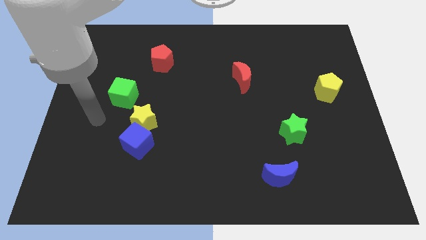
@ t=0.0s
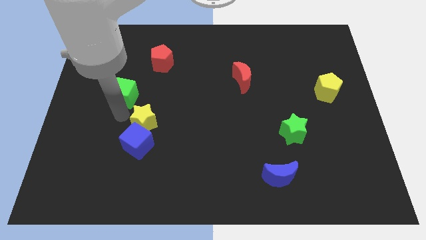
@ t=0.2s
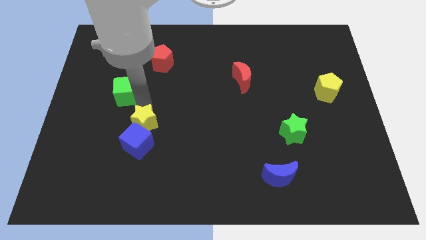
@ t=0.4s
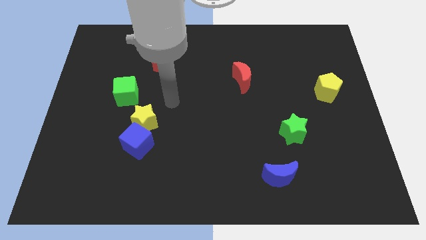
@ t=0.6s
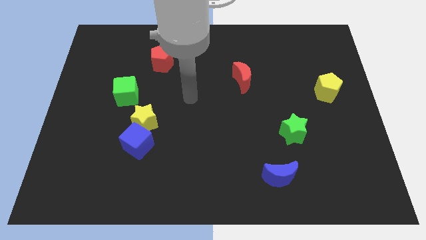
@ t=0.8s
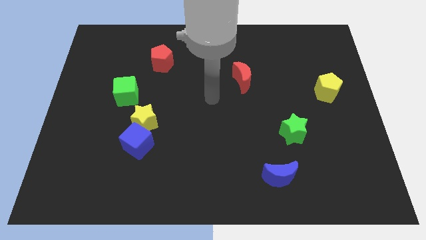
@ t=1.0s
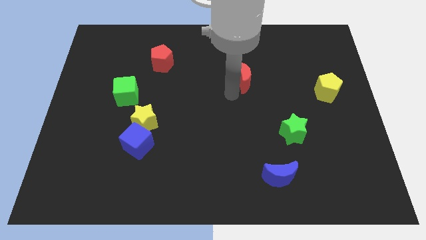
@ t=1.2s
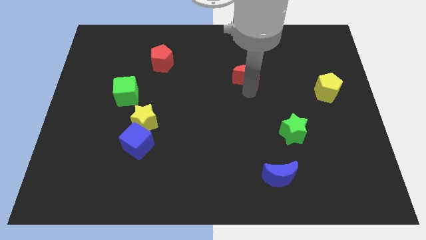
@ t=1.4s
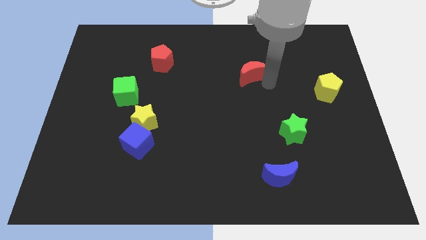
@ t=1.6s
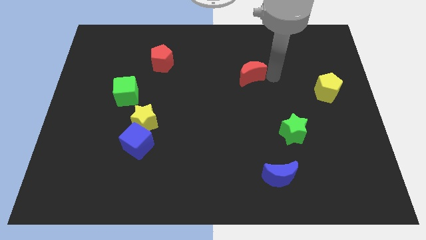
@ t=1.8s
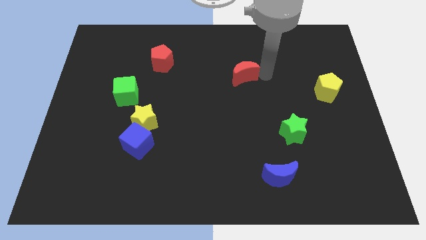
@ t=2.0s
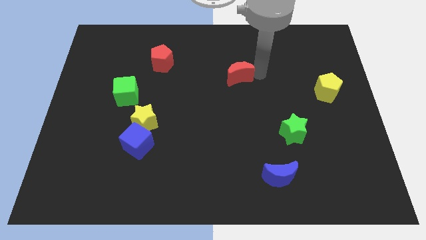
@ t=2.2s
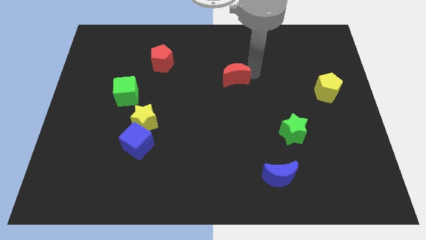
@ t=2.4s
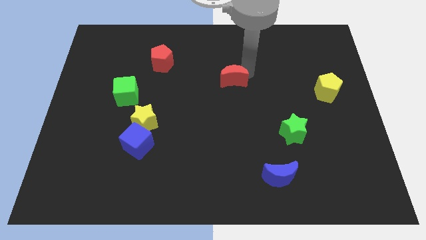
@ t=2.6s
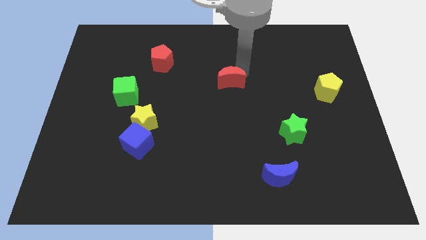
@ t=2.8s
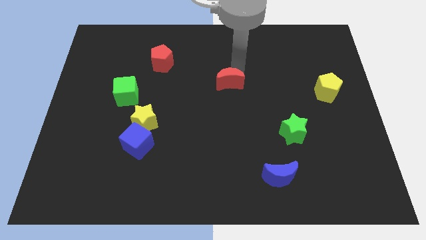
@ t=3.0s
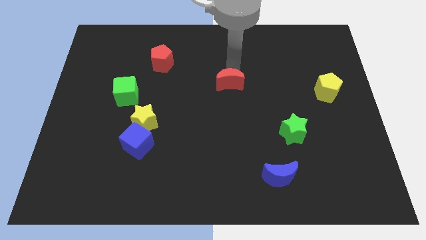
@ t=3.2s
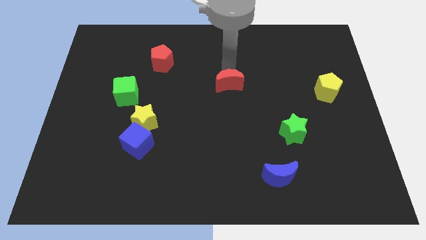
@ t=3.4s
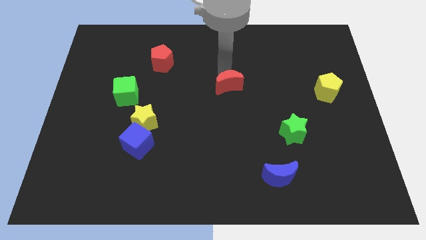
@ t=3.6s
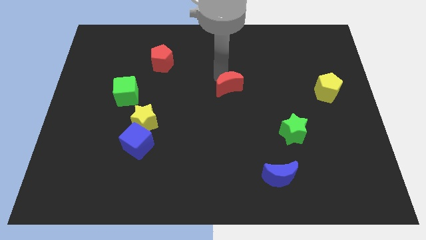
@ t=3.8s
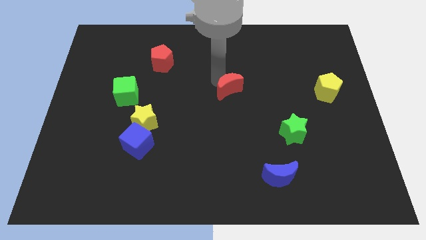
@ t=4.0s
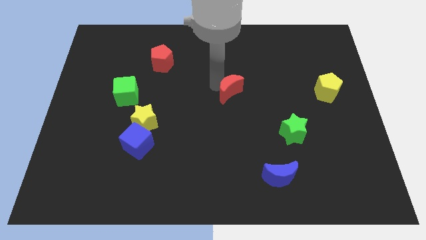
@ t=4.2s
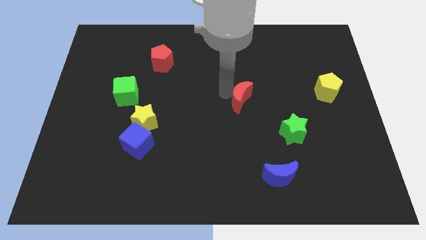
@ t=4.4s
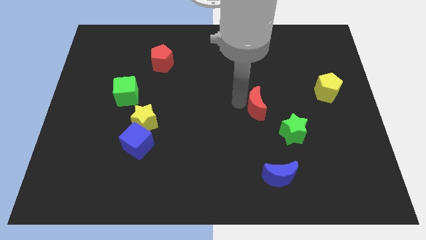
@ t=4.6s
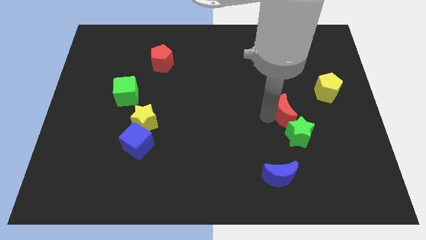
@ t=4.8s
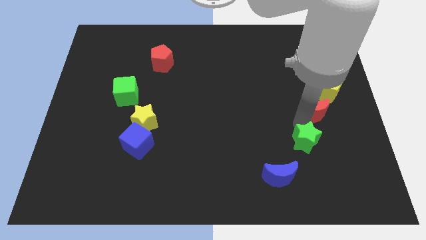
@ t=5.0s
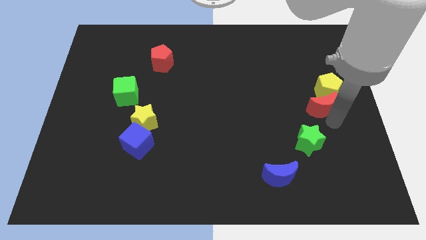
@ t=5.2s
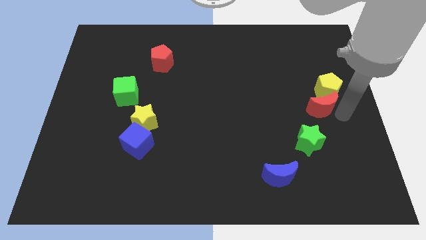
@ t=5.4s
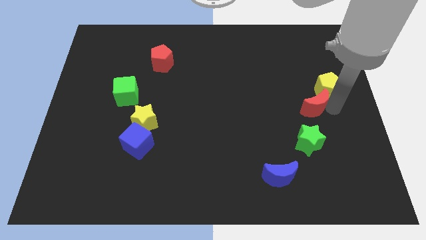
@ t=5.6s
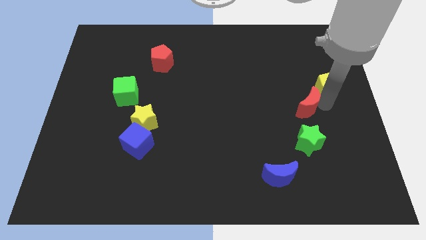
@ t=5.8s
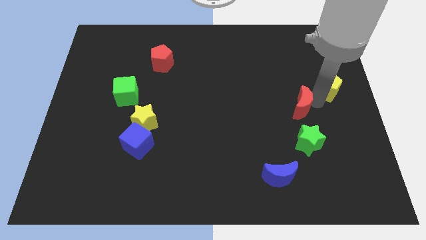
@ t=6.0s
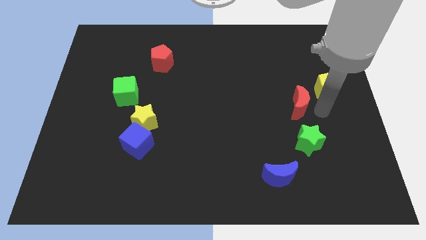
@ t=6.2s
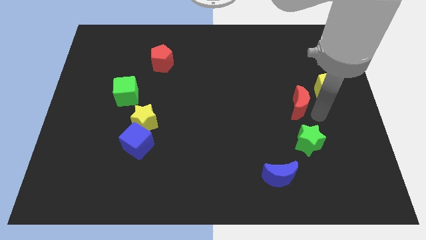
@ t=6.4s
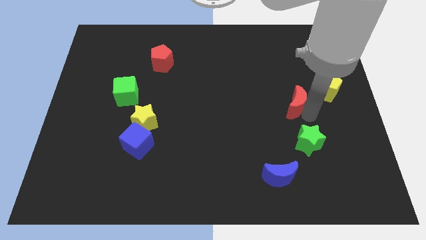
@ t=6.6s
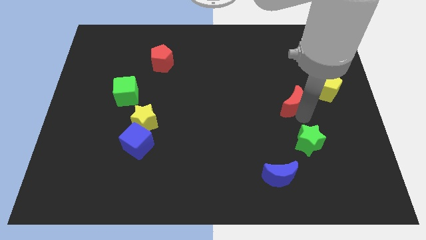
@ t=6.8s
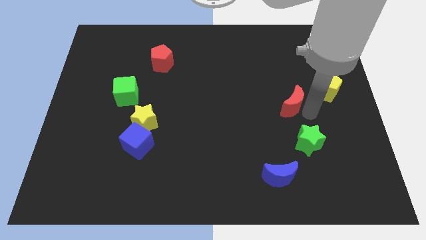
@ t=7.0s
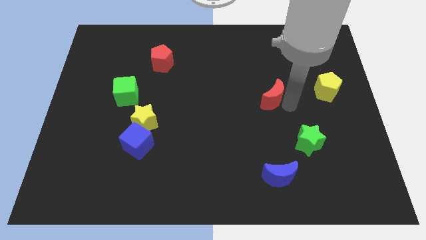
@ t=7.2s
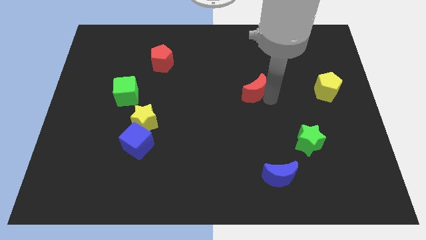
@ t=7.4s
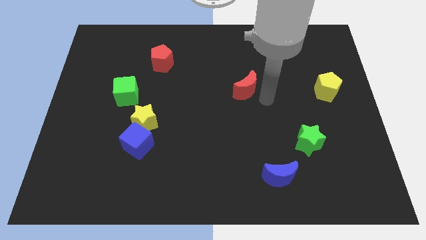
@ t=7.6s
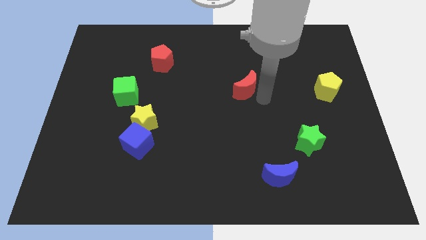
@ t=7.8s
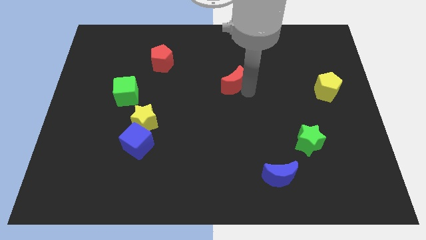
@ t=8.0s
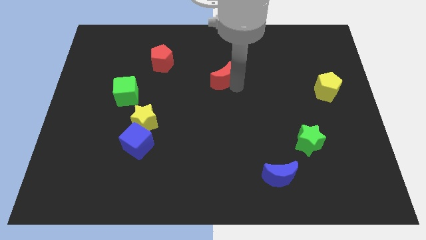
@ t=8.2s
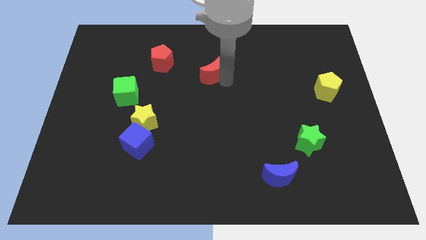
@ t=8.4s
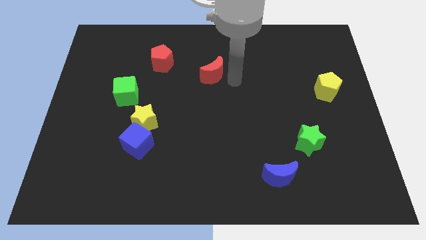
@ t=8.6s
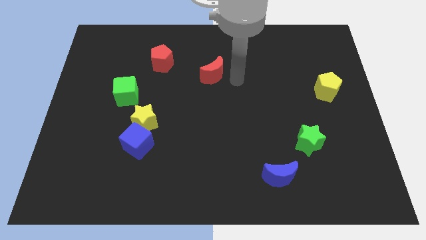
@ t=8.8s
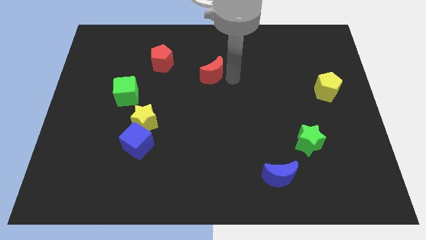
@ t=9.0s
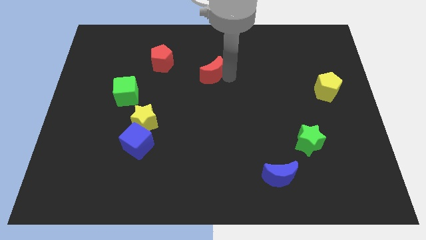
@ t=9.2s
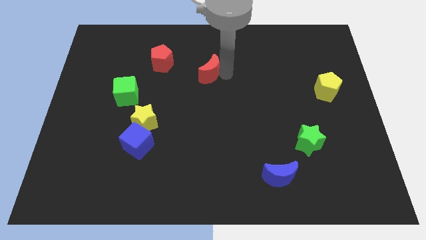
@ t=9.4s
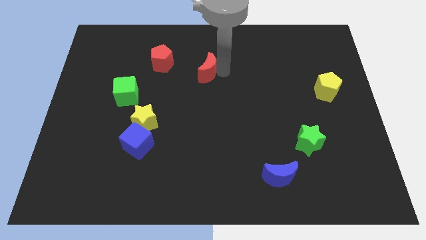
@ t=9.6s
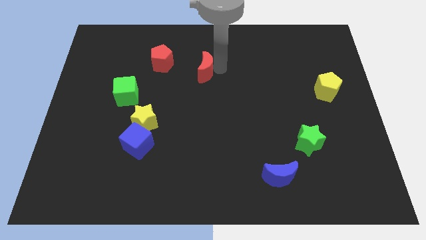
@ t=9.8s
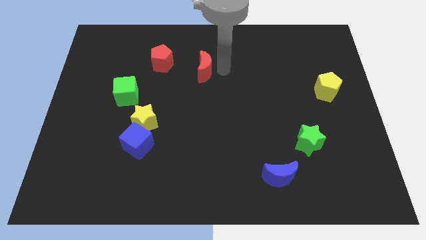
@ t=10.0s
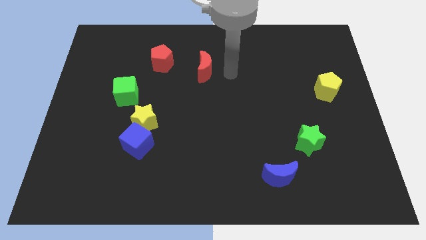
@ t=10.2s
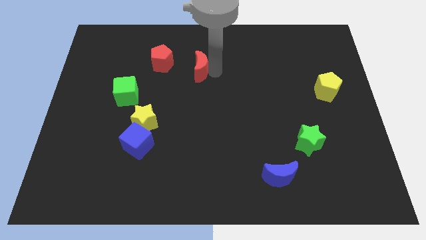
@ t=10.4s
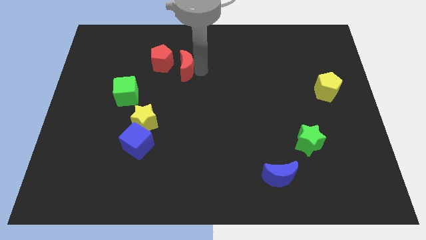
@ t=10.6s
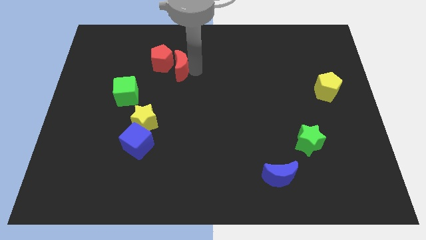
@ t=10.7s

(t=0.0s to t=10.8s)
move the red moon towards the red pentagon

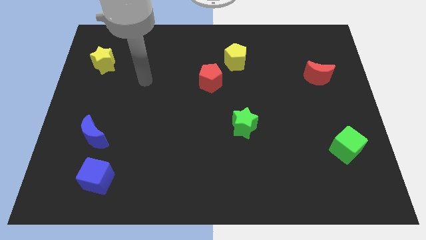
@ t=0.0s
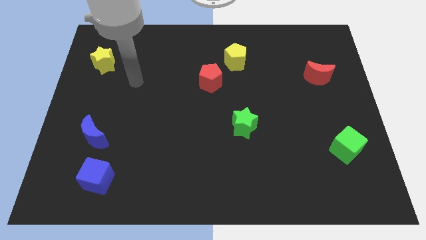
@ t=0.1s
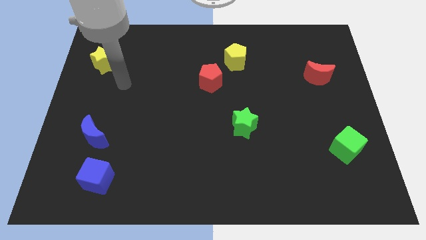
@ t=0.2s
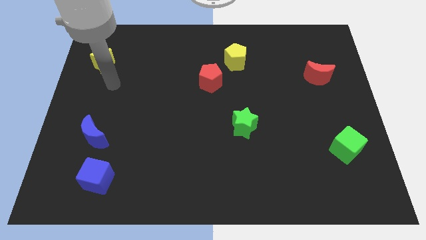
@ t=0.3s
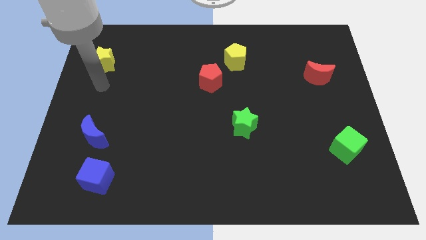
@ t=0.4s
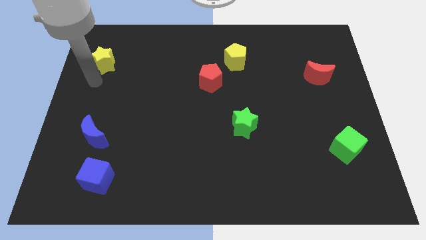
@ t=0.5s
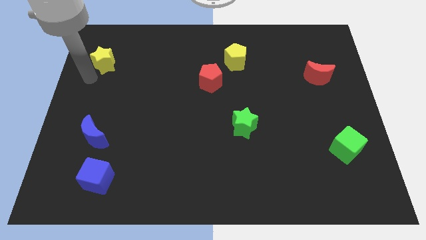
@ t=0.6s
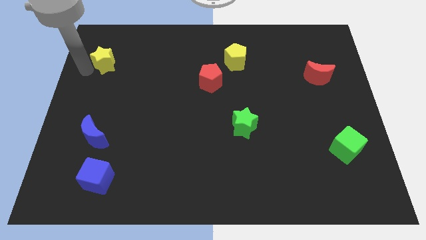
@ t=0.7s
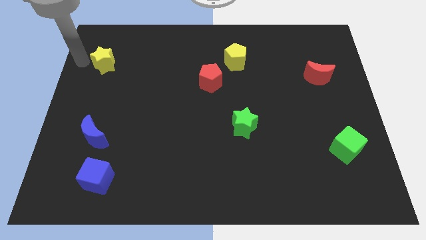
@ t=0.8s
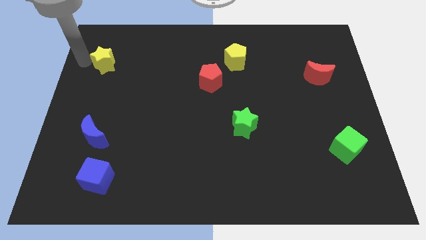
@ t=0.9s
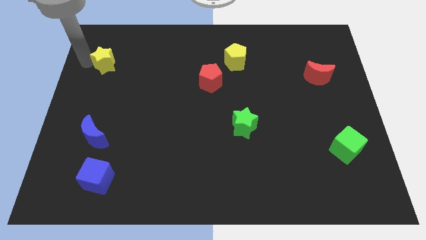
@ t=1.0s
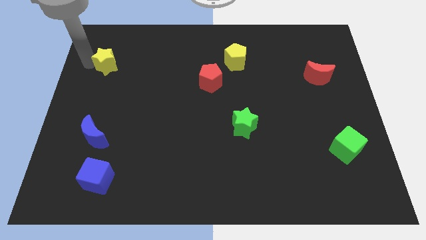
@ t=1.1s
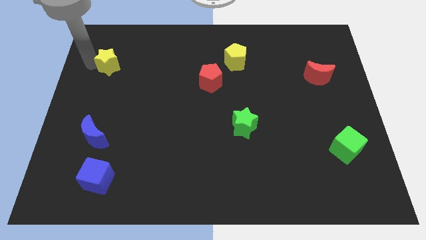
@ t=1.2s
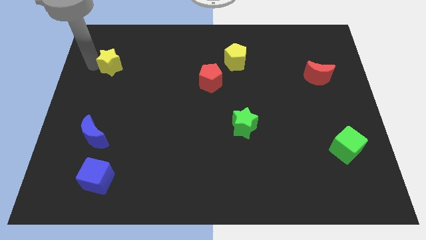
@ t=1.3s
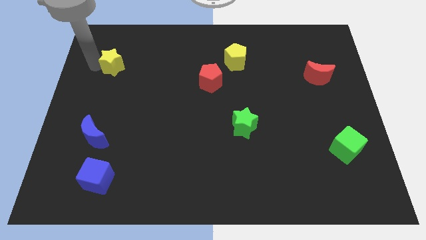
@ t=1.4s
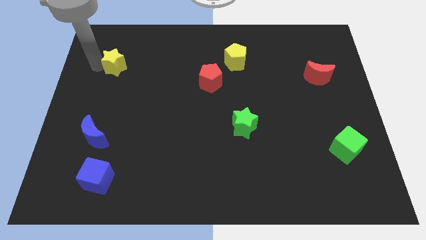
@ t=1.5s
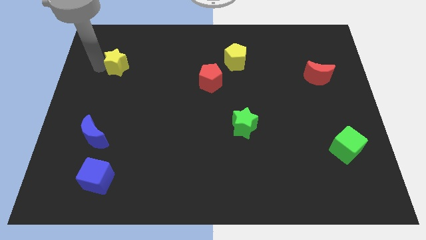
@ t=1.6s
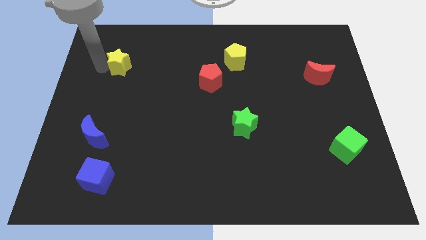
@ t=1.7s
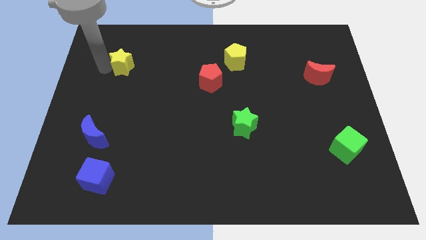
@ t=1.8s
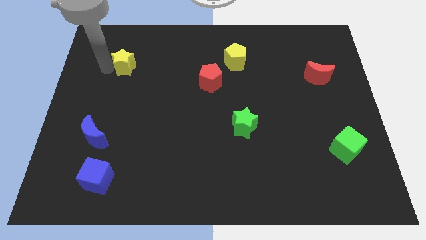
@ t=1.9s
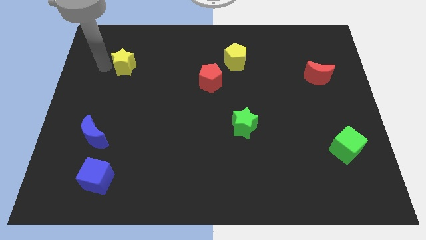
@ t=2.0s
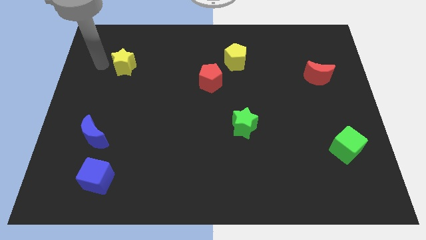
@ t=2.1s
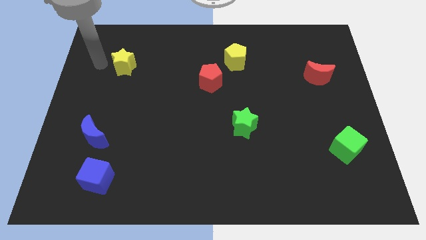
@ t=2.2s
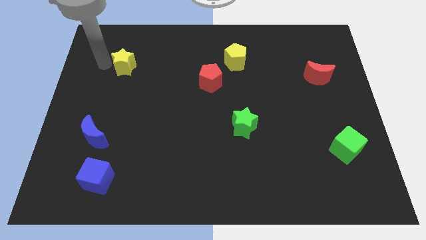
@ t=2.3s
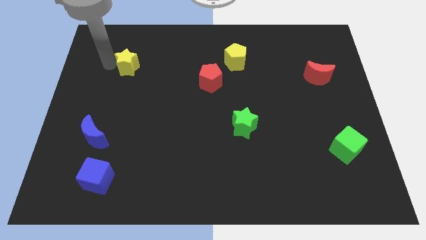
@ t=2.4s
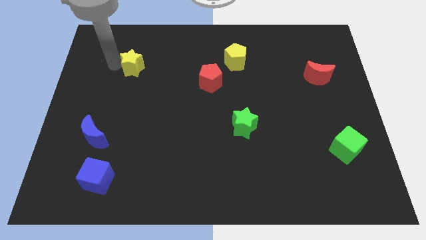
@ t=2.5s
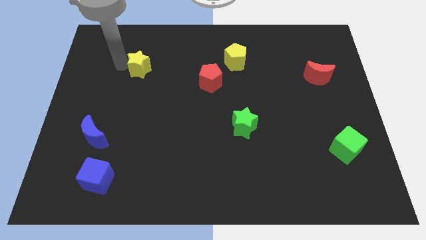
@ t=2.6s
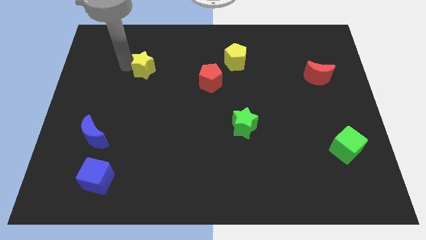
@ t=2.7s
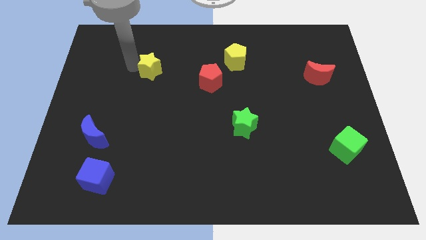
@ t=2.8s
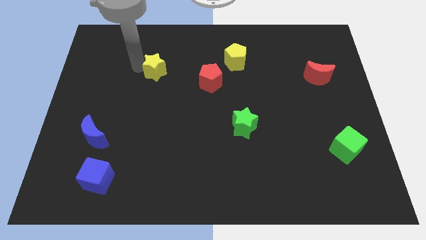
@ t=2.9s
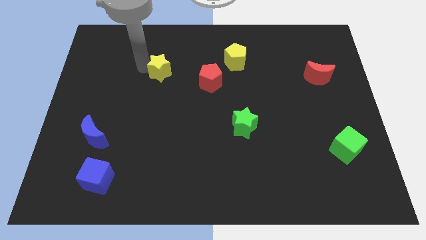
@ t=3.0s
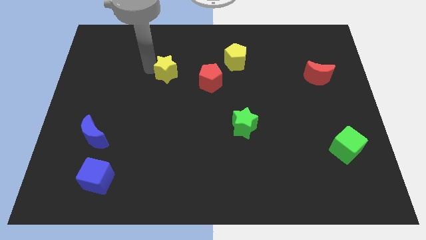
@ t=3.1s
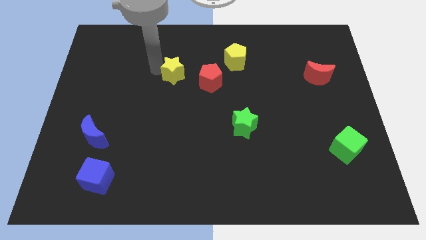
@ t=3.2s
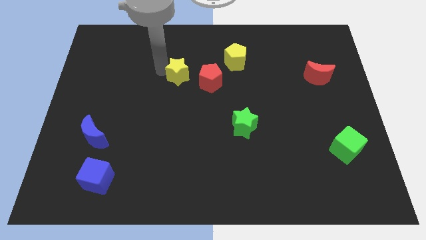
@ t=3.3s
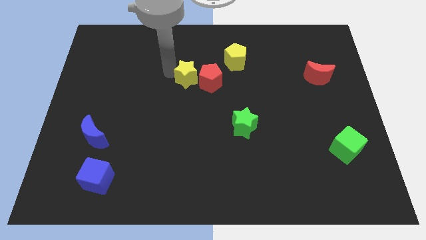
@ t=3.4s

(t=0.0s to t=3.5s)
slide the yellow star towards the red pentagon
